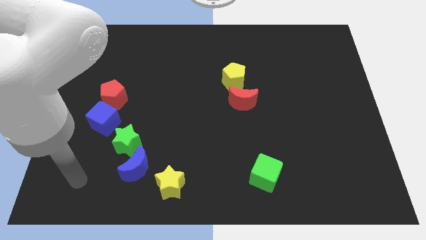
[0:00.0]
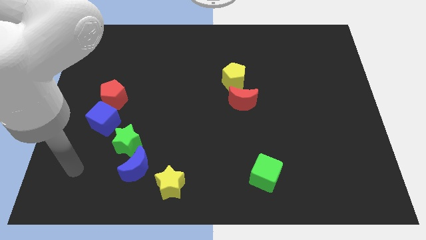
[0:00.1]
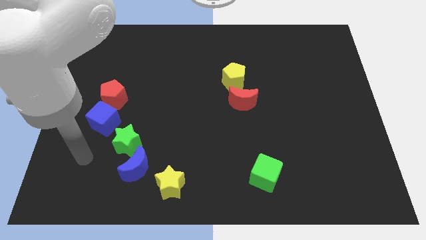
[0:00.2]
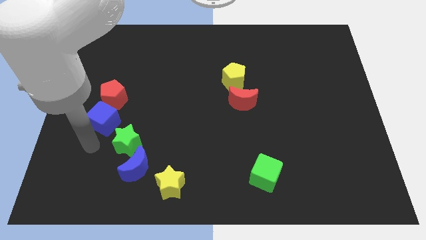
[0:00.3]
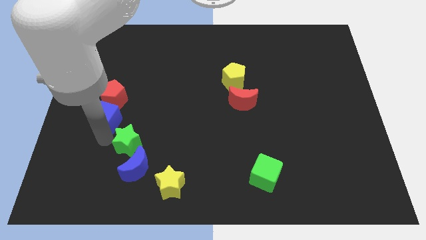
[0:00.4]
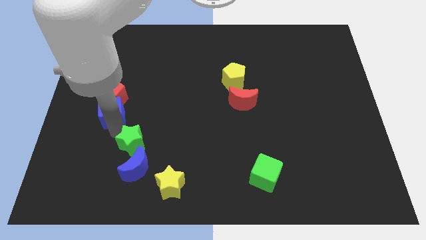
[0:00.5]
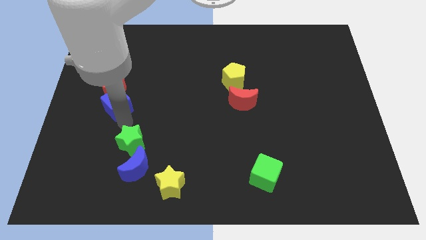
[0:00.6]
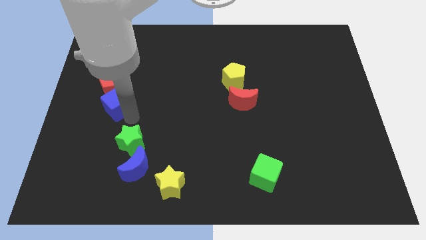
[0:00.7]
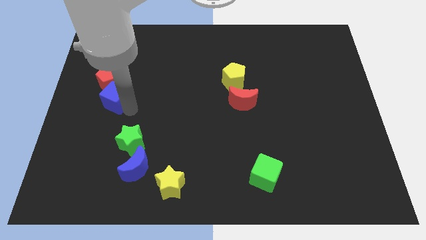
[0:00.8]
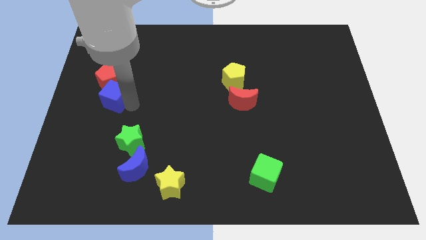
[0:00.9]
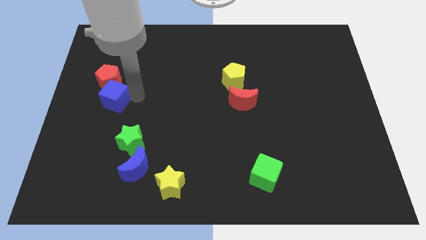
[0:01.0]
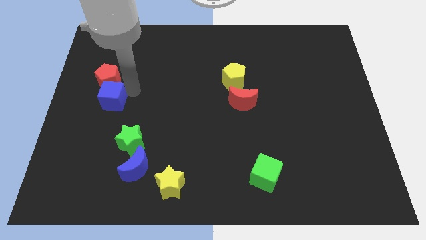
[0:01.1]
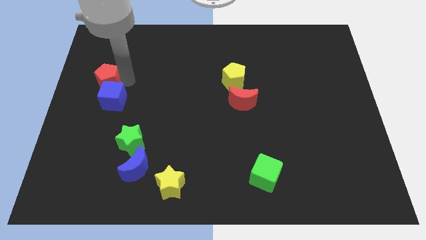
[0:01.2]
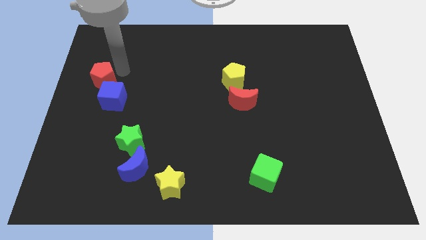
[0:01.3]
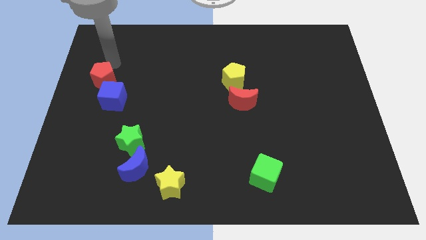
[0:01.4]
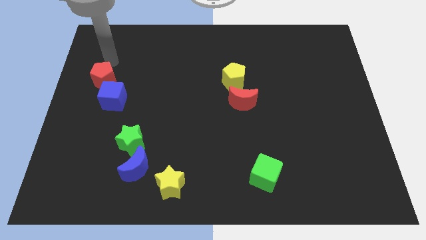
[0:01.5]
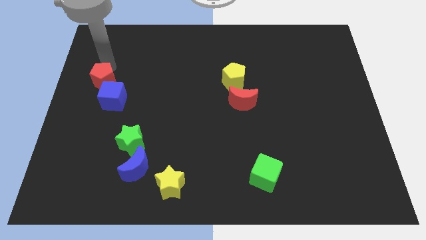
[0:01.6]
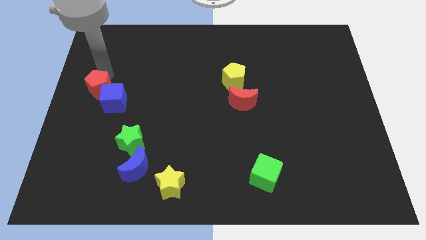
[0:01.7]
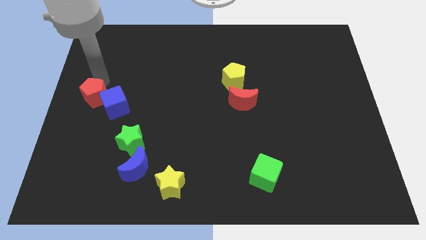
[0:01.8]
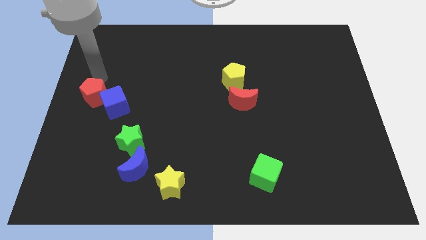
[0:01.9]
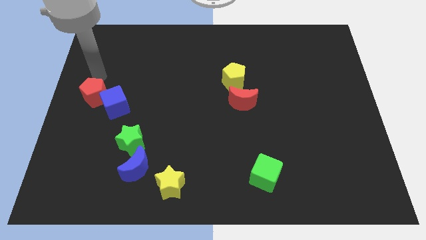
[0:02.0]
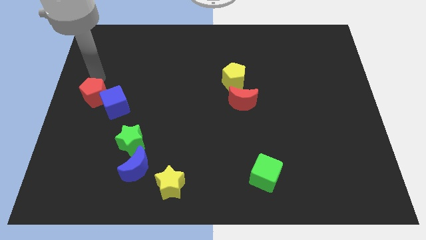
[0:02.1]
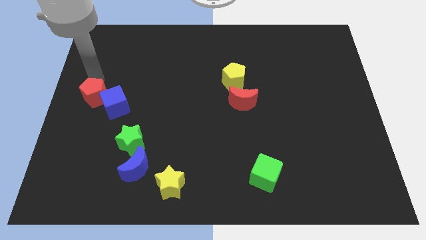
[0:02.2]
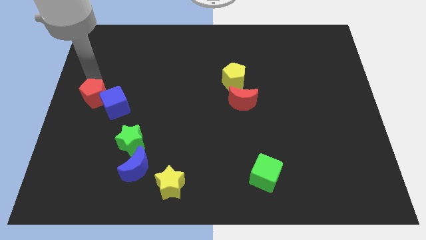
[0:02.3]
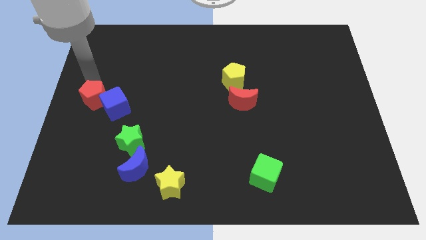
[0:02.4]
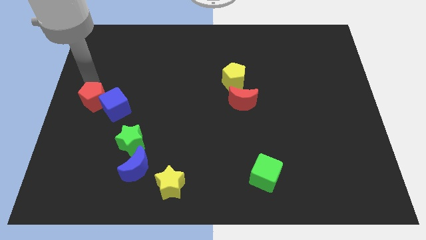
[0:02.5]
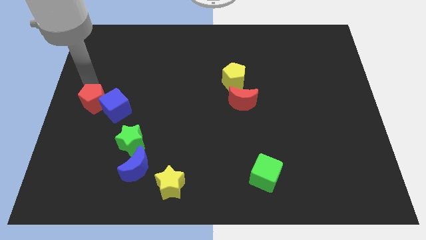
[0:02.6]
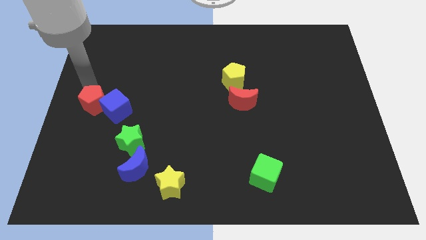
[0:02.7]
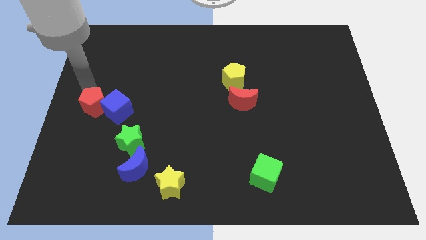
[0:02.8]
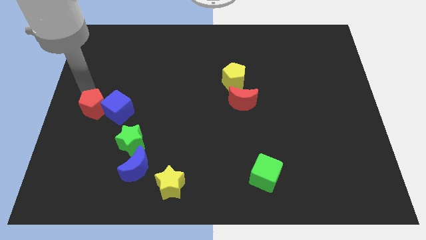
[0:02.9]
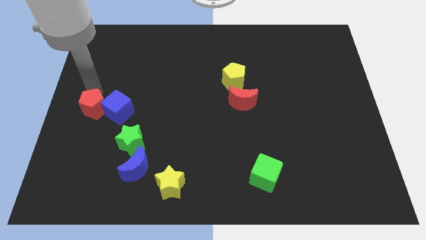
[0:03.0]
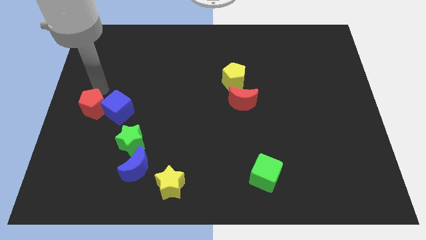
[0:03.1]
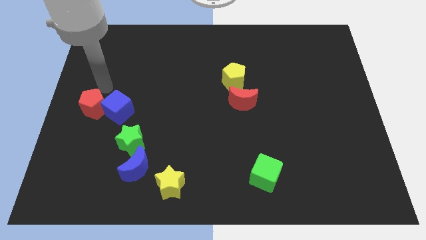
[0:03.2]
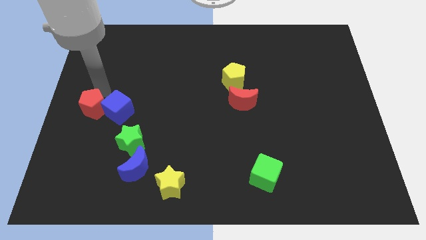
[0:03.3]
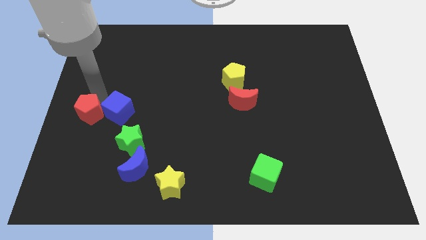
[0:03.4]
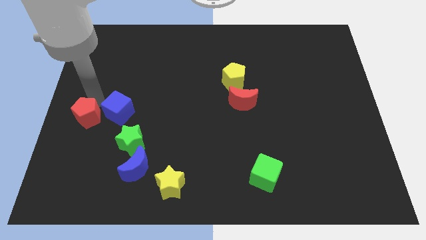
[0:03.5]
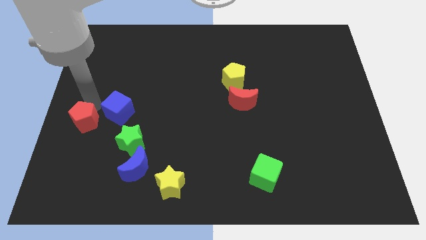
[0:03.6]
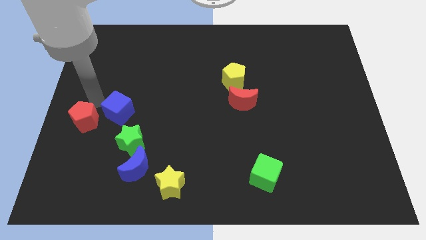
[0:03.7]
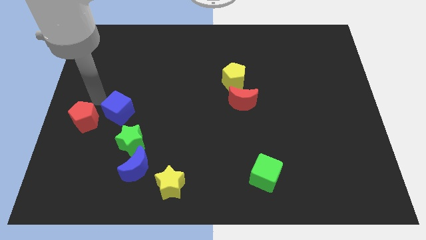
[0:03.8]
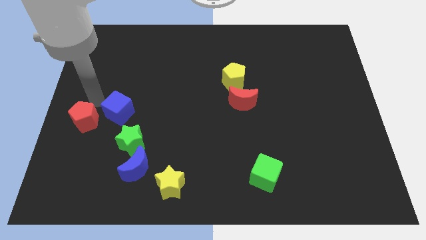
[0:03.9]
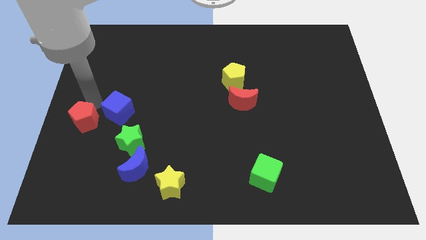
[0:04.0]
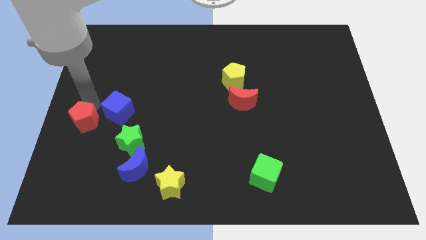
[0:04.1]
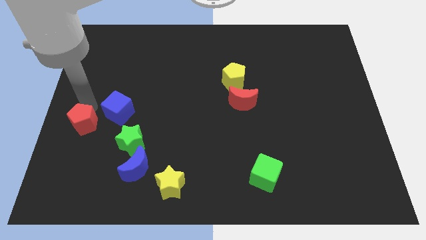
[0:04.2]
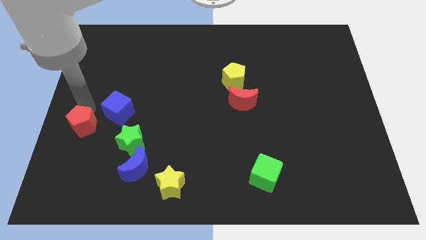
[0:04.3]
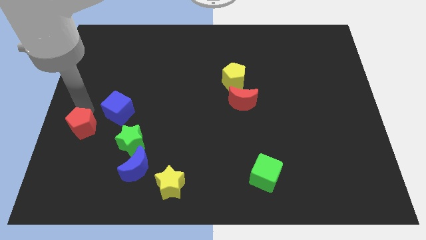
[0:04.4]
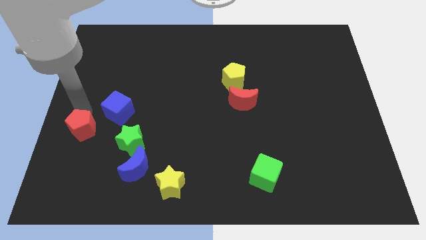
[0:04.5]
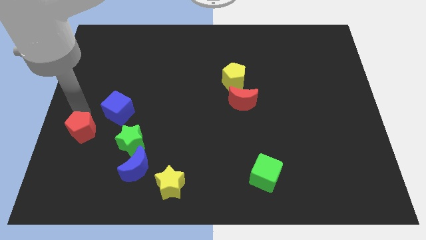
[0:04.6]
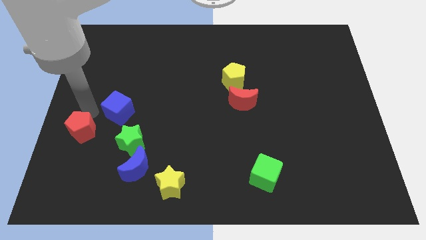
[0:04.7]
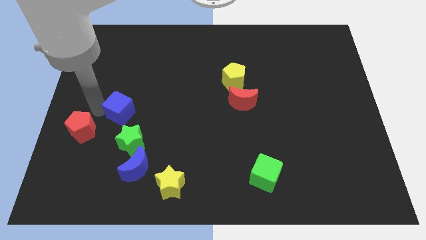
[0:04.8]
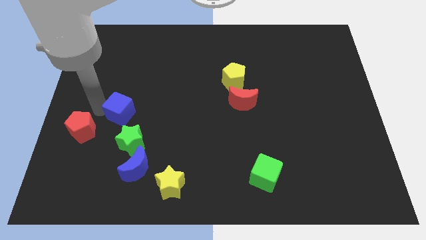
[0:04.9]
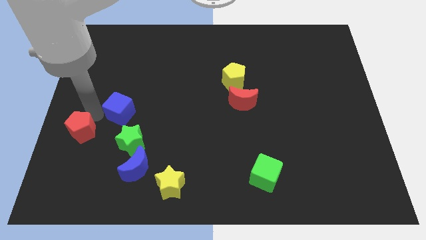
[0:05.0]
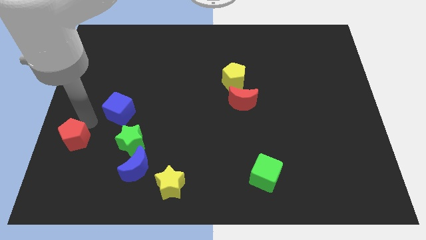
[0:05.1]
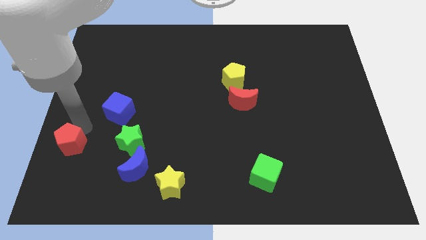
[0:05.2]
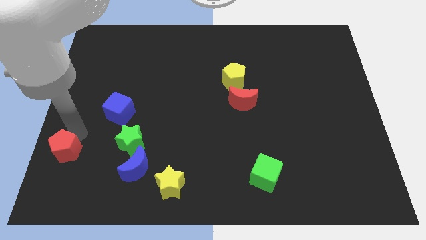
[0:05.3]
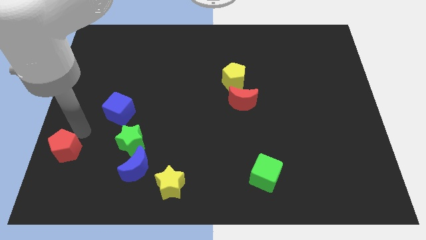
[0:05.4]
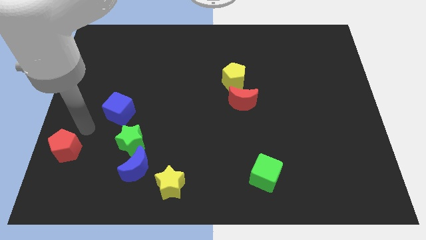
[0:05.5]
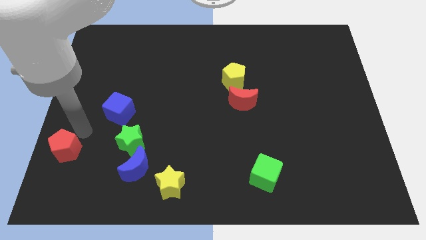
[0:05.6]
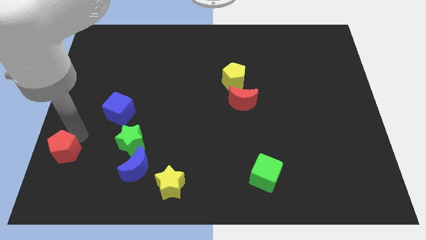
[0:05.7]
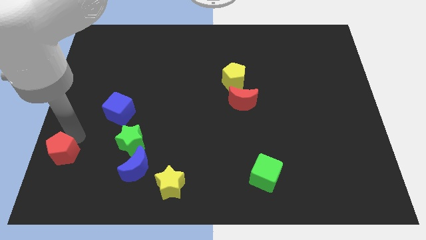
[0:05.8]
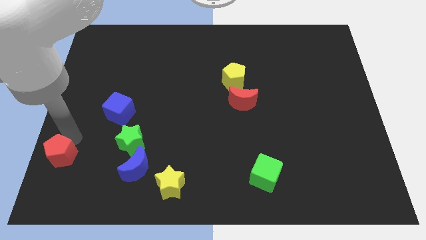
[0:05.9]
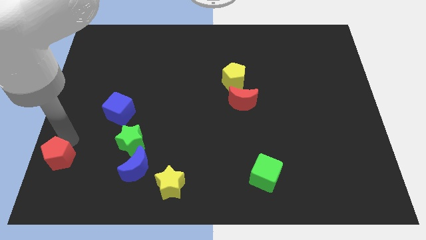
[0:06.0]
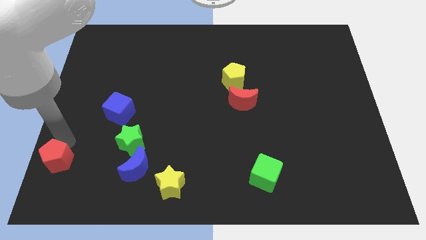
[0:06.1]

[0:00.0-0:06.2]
slide the red pentagon to the lower left corner

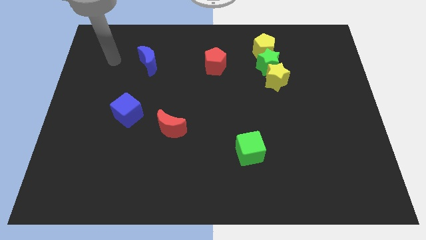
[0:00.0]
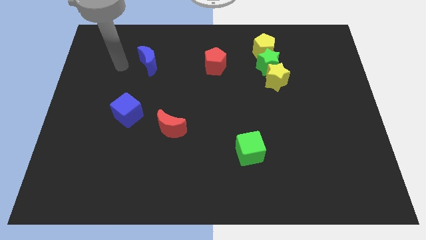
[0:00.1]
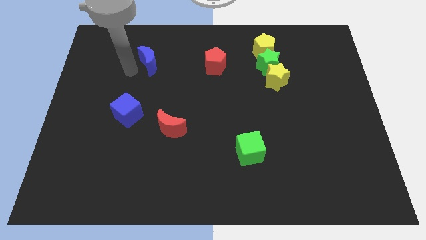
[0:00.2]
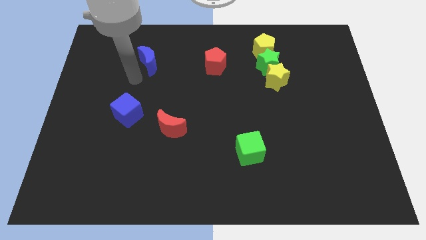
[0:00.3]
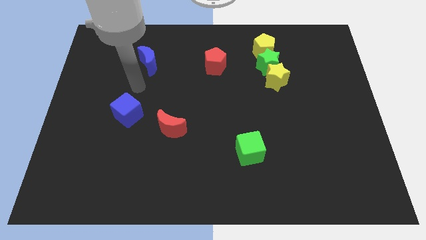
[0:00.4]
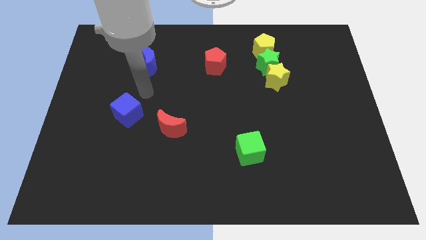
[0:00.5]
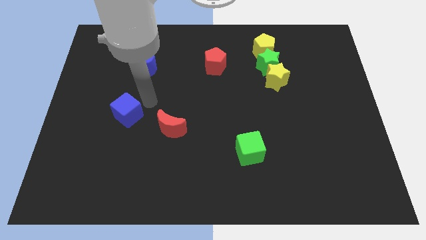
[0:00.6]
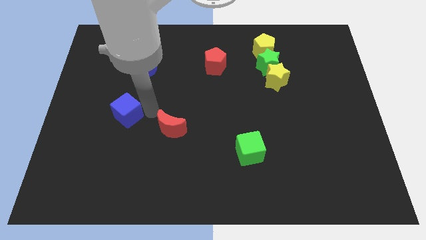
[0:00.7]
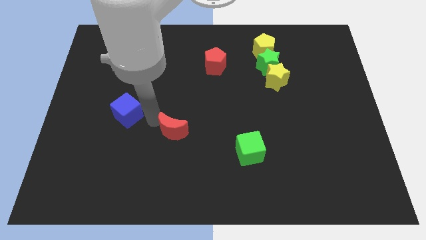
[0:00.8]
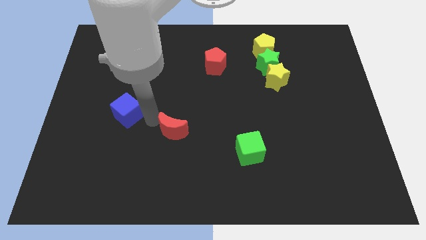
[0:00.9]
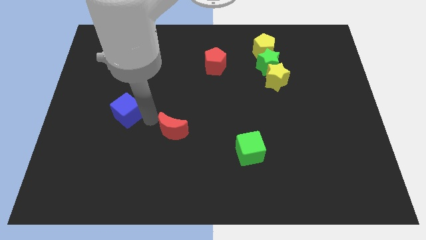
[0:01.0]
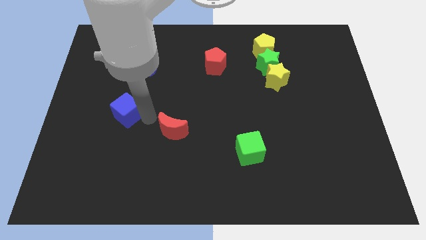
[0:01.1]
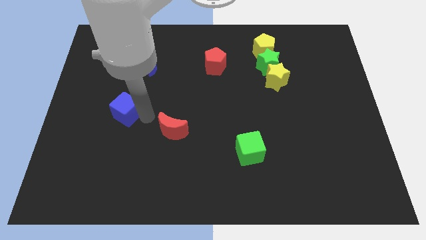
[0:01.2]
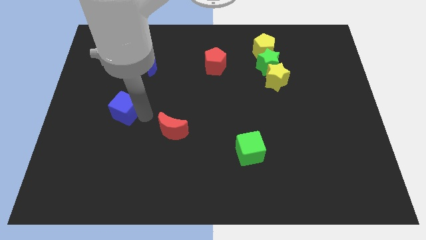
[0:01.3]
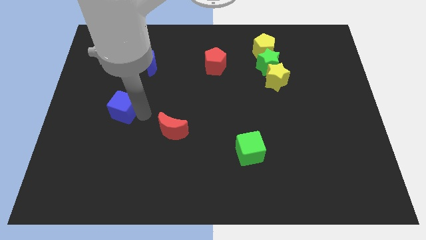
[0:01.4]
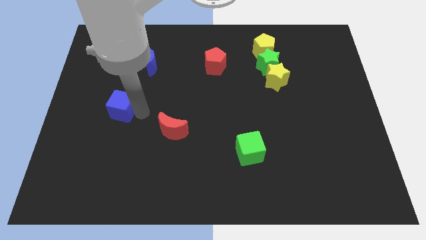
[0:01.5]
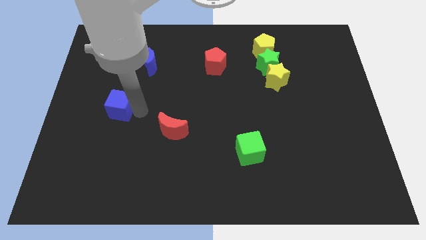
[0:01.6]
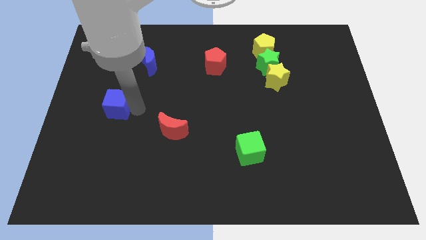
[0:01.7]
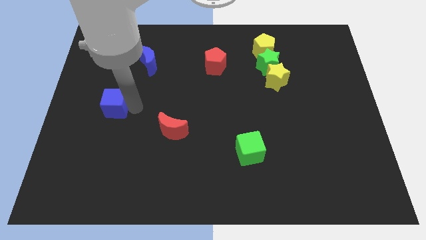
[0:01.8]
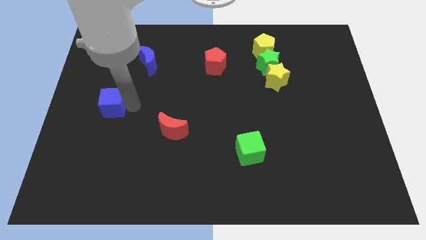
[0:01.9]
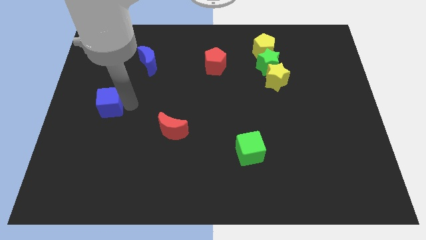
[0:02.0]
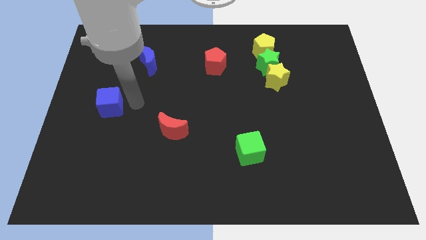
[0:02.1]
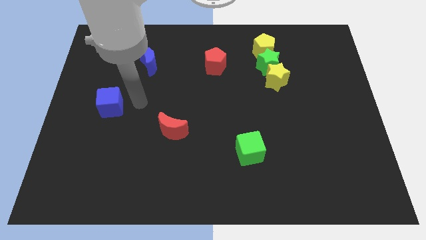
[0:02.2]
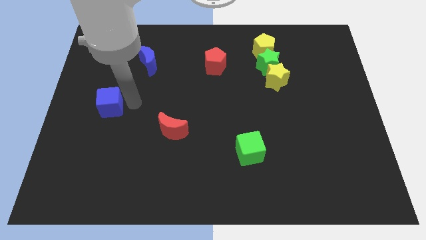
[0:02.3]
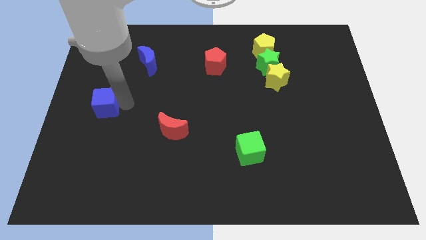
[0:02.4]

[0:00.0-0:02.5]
put the blue cube to the left side of the board
